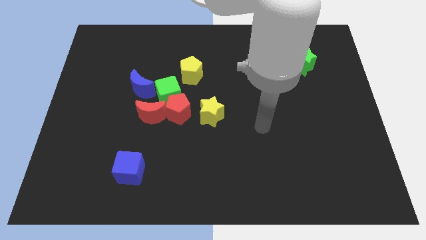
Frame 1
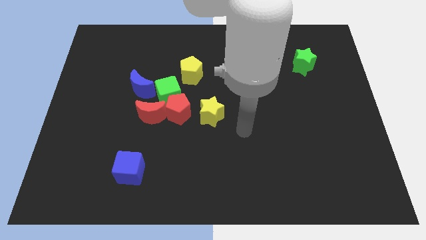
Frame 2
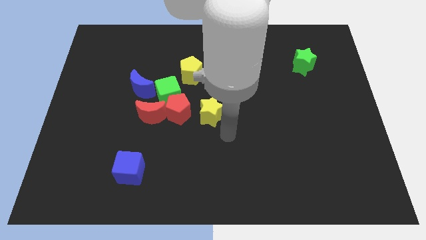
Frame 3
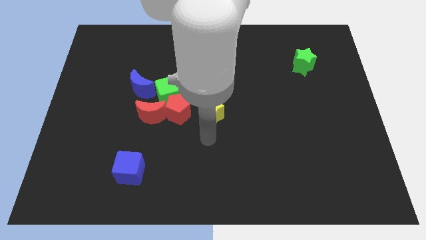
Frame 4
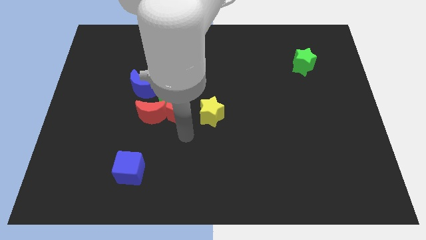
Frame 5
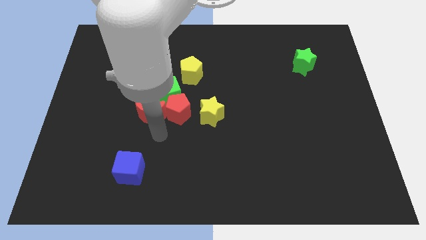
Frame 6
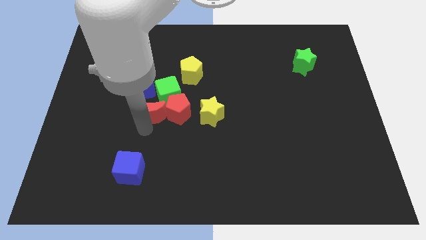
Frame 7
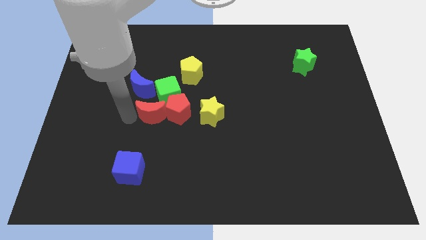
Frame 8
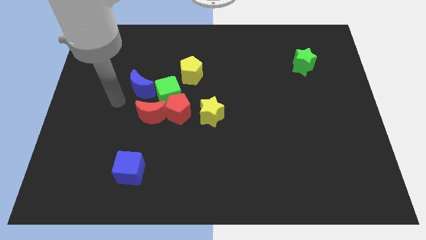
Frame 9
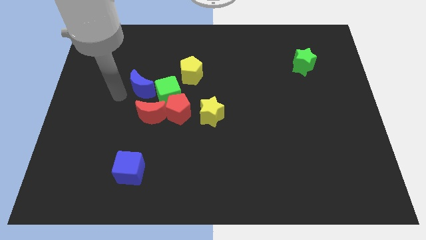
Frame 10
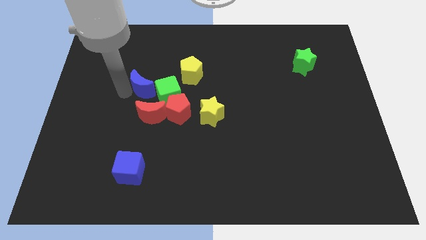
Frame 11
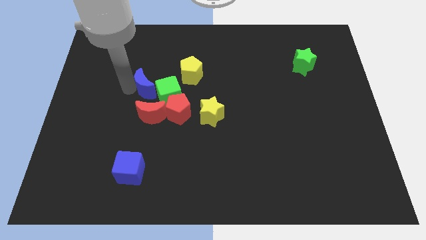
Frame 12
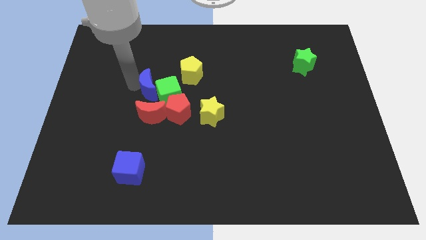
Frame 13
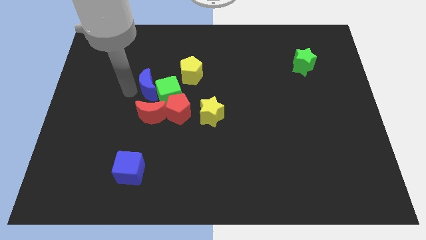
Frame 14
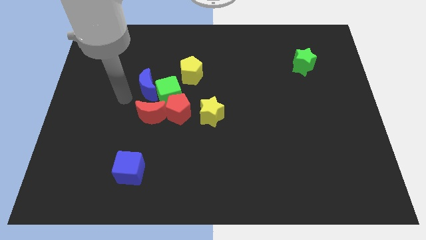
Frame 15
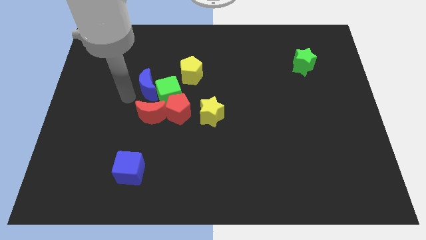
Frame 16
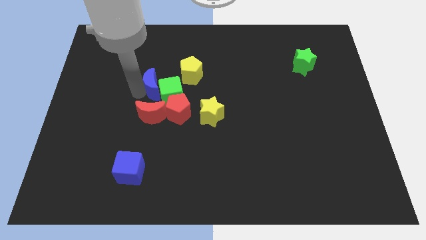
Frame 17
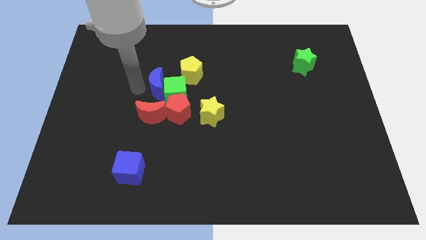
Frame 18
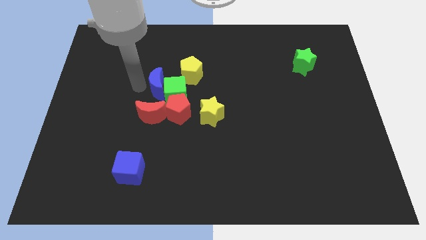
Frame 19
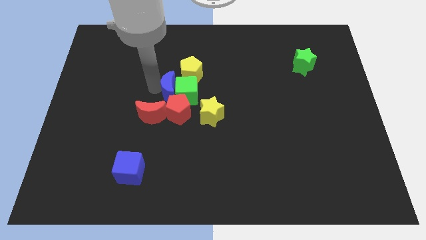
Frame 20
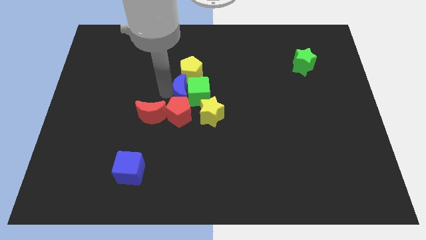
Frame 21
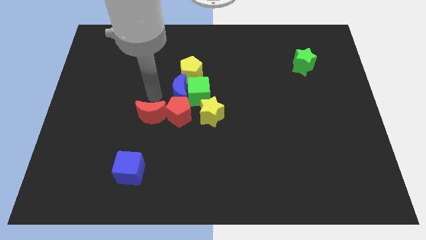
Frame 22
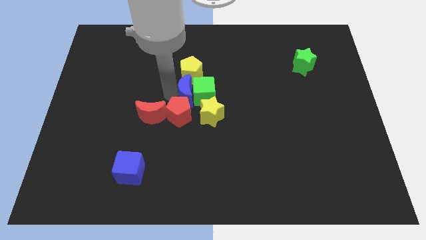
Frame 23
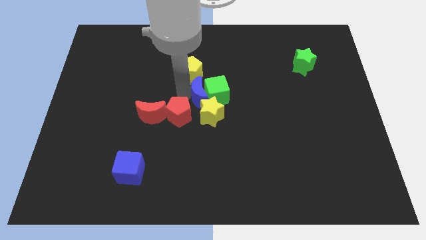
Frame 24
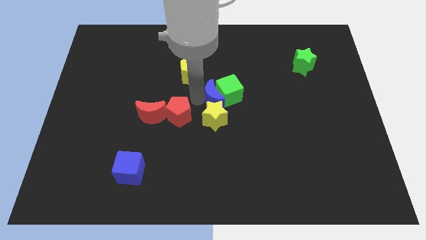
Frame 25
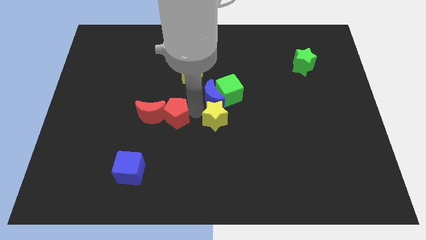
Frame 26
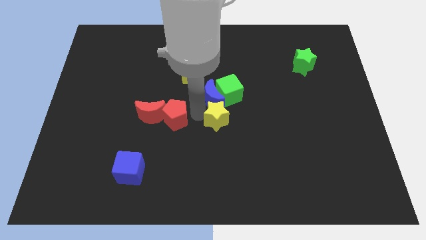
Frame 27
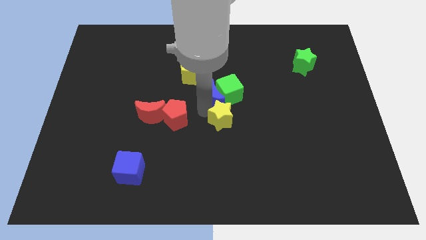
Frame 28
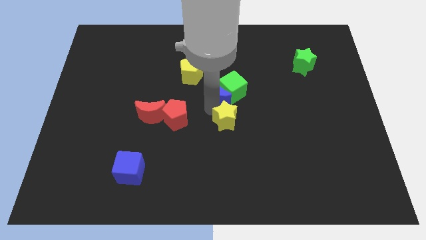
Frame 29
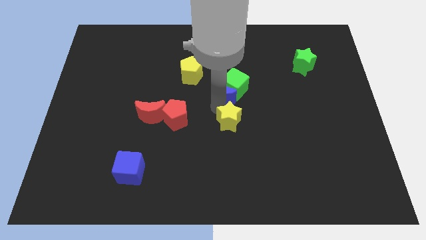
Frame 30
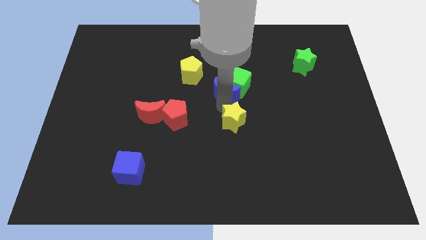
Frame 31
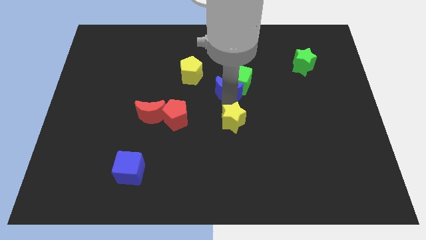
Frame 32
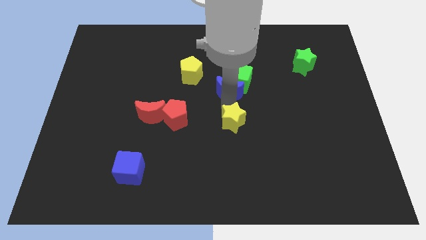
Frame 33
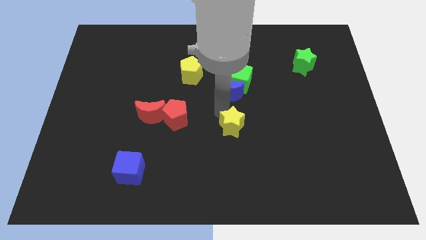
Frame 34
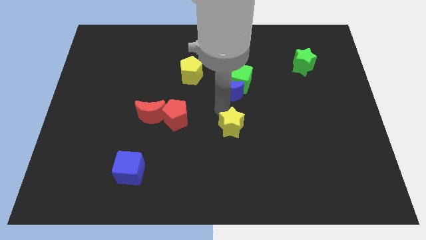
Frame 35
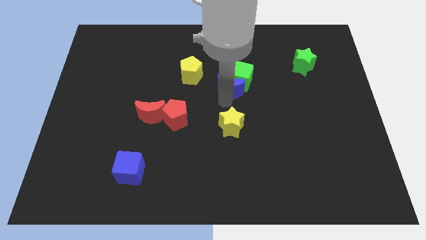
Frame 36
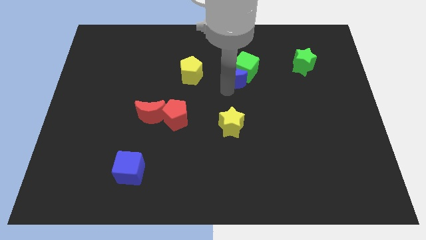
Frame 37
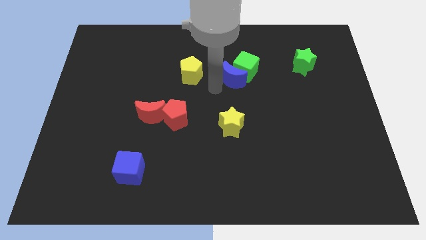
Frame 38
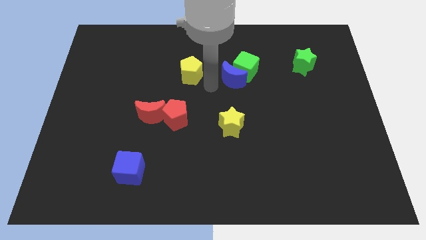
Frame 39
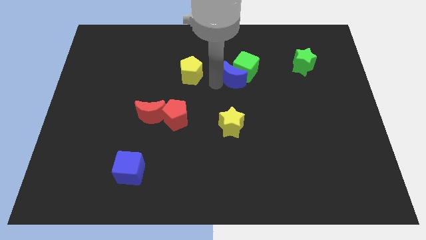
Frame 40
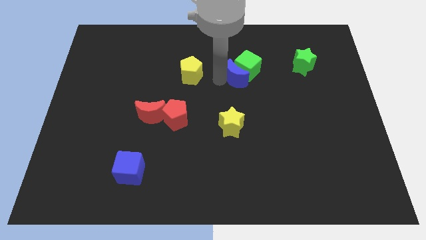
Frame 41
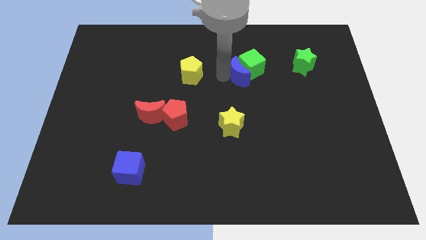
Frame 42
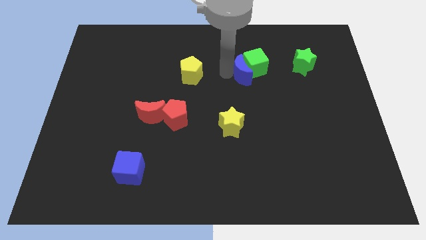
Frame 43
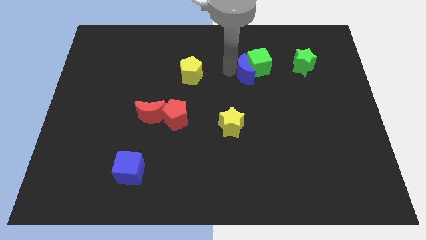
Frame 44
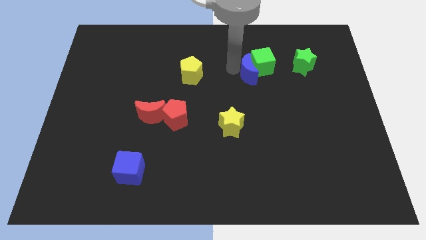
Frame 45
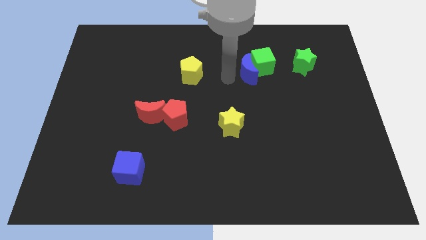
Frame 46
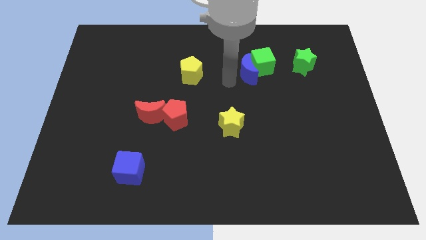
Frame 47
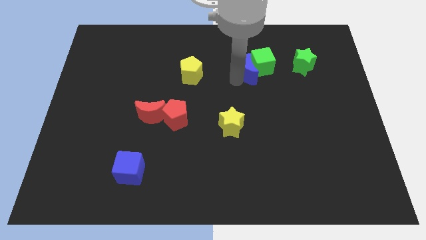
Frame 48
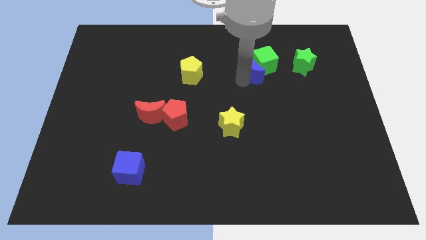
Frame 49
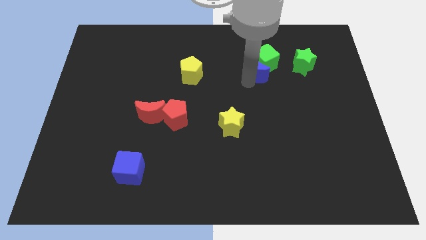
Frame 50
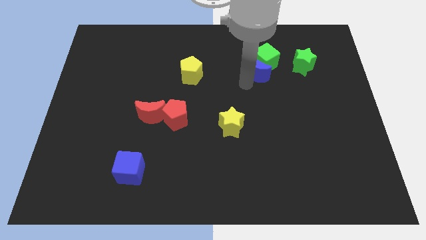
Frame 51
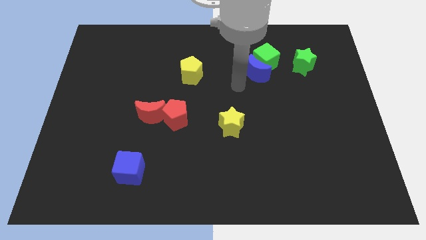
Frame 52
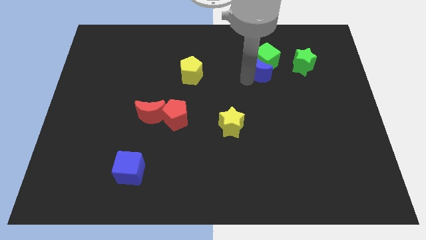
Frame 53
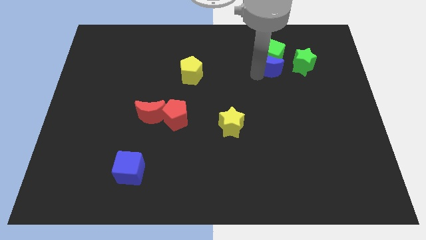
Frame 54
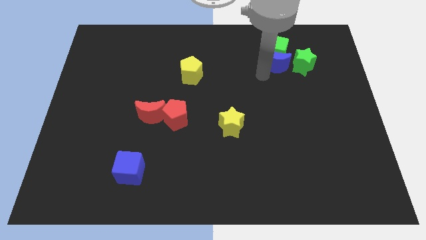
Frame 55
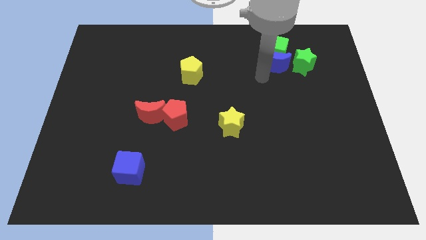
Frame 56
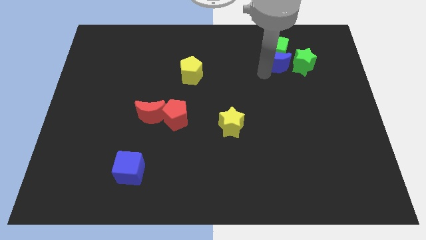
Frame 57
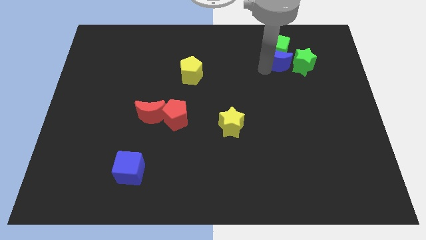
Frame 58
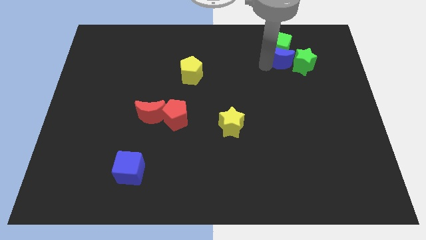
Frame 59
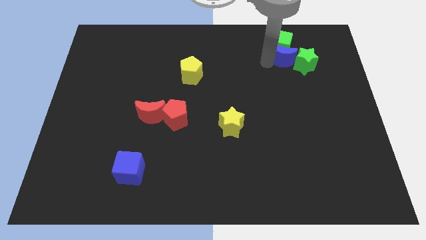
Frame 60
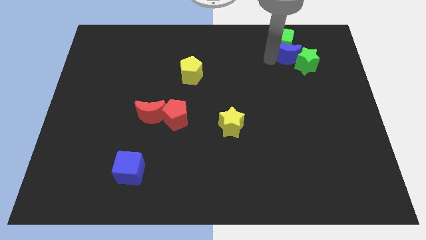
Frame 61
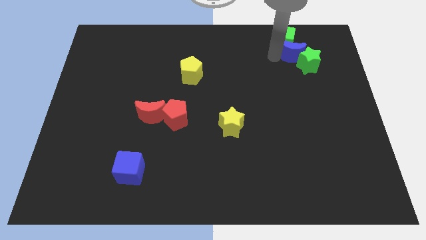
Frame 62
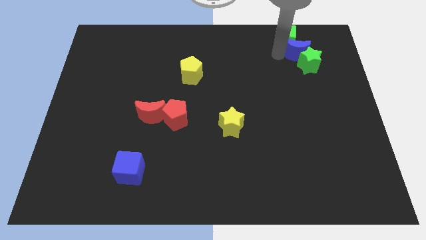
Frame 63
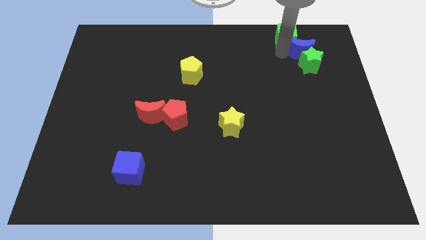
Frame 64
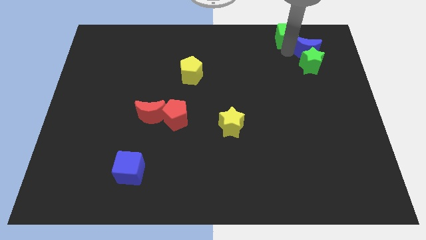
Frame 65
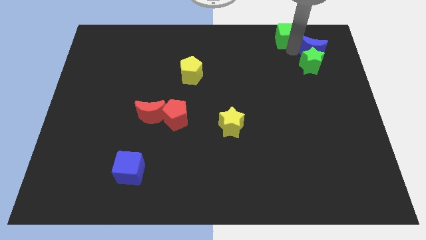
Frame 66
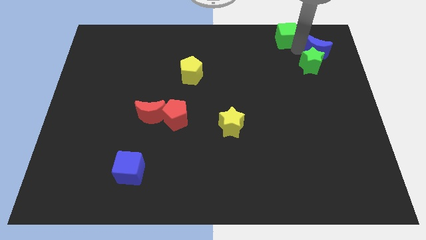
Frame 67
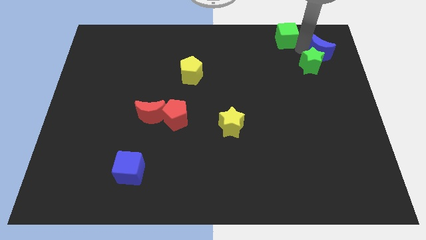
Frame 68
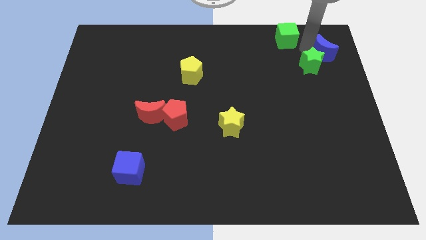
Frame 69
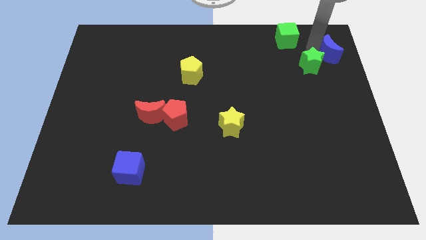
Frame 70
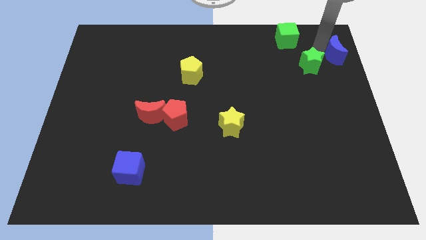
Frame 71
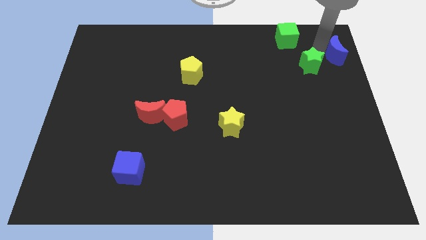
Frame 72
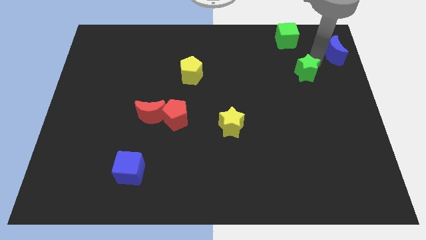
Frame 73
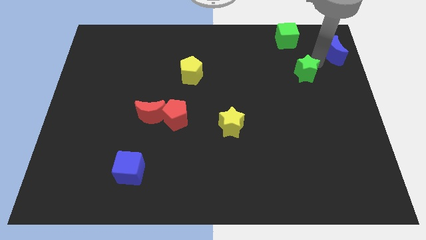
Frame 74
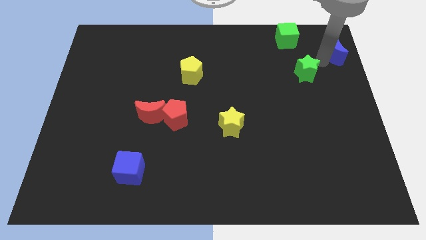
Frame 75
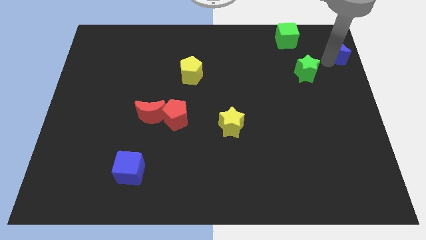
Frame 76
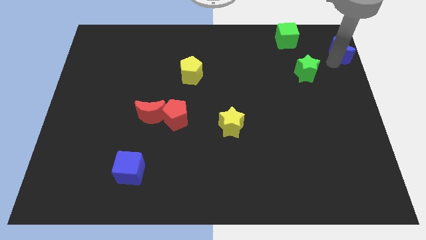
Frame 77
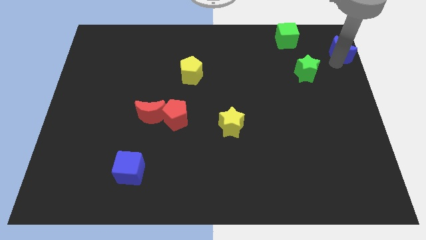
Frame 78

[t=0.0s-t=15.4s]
push the blue moon to the upper right corner
